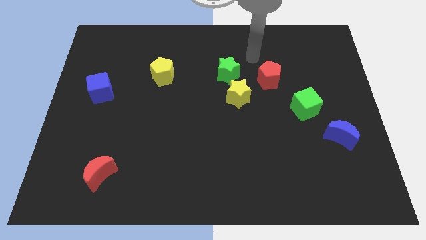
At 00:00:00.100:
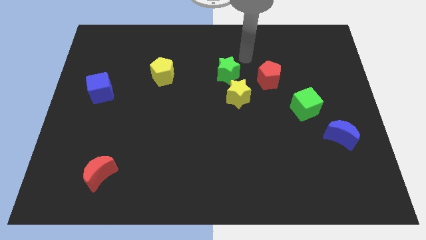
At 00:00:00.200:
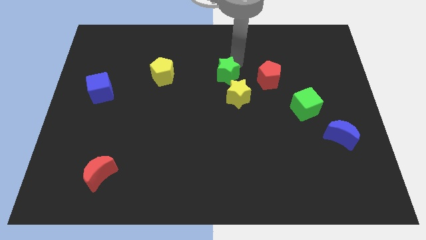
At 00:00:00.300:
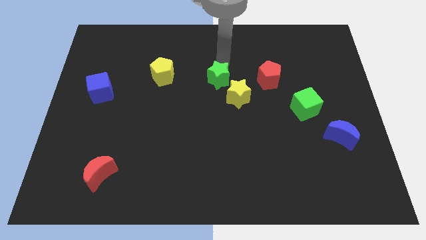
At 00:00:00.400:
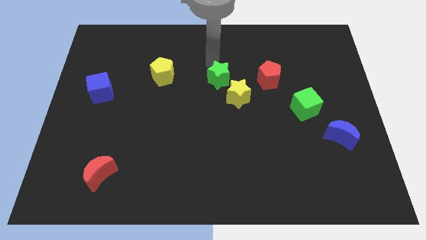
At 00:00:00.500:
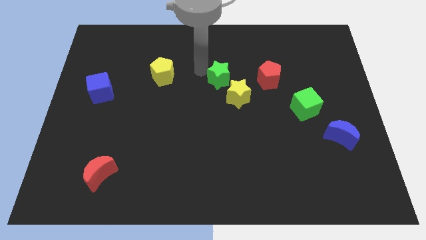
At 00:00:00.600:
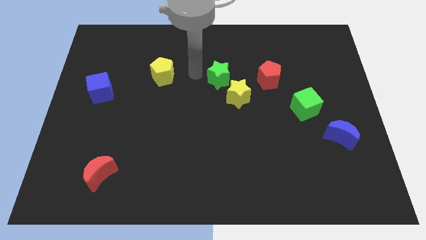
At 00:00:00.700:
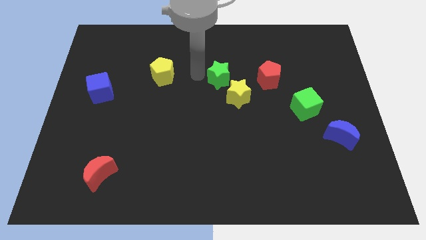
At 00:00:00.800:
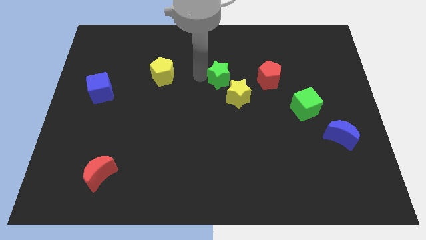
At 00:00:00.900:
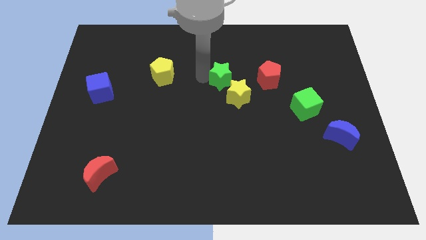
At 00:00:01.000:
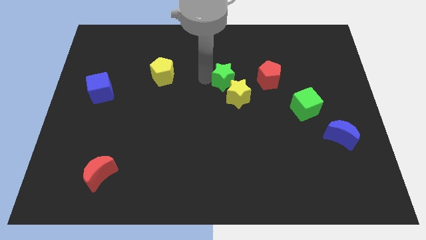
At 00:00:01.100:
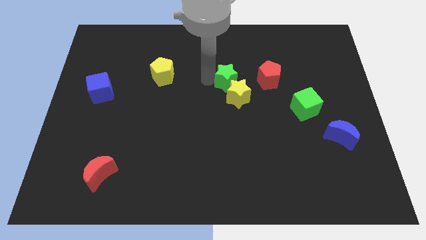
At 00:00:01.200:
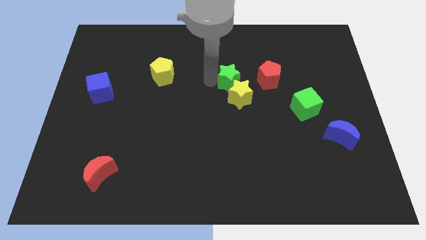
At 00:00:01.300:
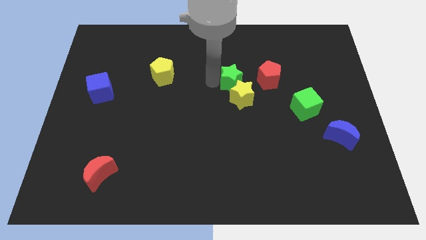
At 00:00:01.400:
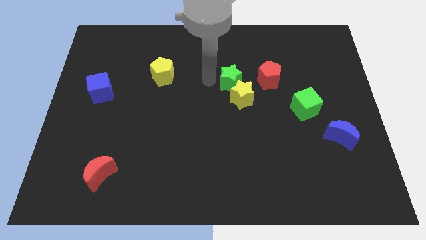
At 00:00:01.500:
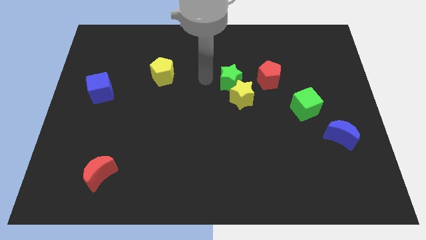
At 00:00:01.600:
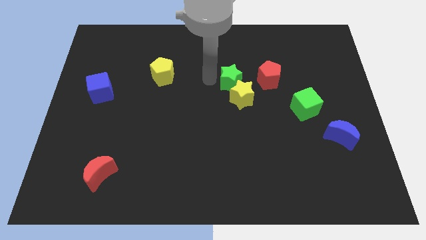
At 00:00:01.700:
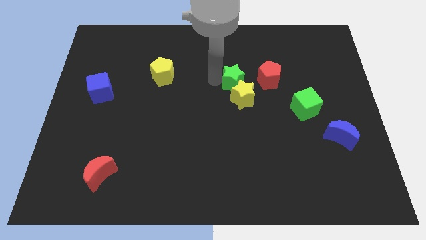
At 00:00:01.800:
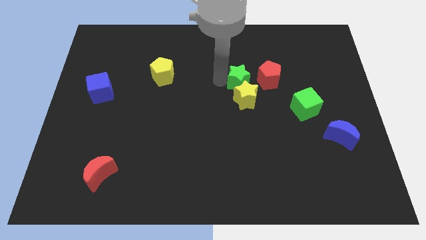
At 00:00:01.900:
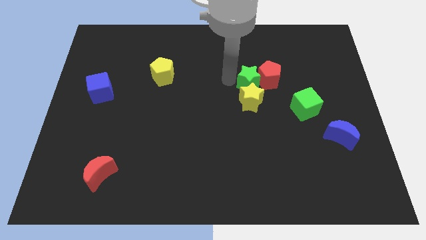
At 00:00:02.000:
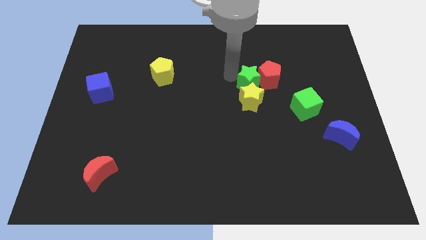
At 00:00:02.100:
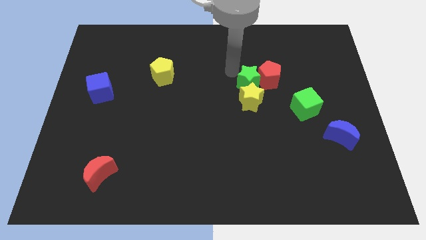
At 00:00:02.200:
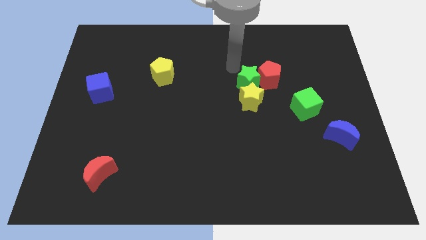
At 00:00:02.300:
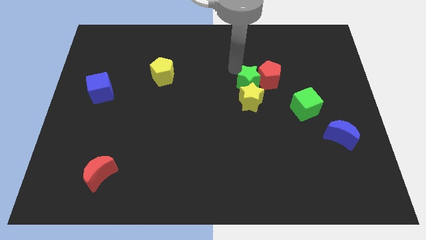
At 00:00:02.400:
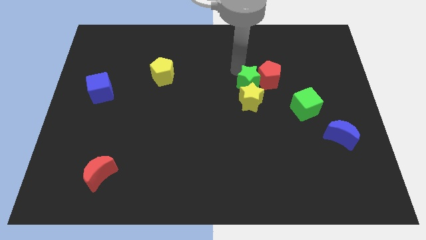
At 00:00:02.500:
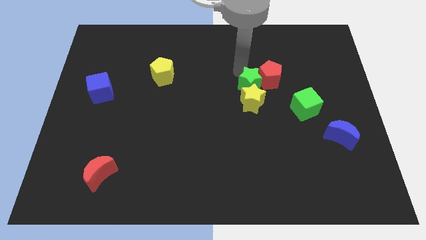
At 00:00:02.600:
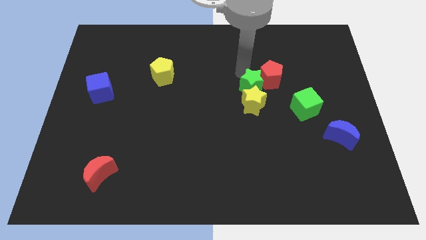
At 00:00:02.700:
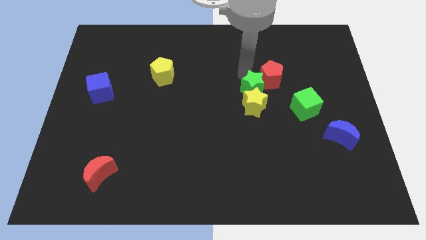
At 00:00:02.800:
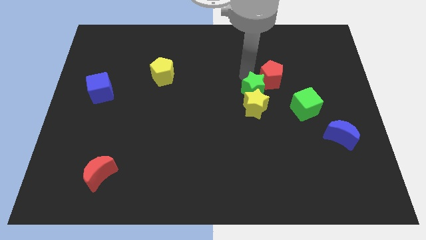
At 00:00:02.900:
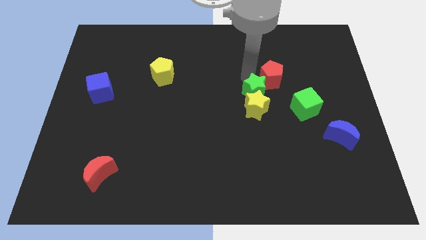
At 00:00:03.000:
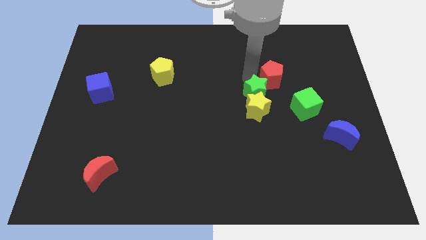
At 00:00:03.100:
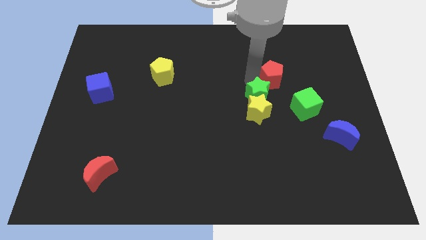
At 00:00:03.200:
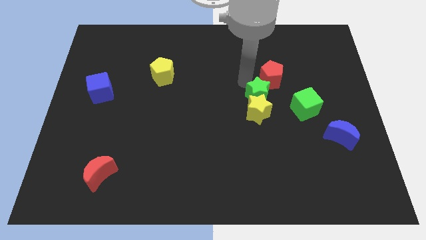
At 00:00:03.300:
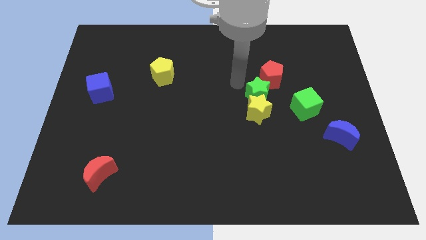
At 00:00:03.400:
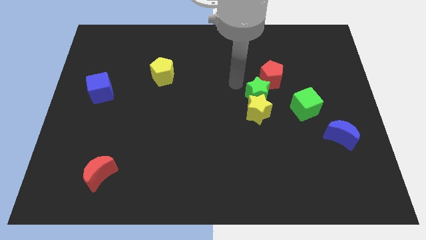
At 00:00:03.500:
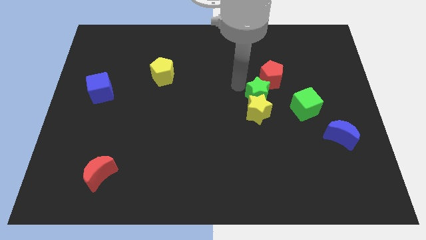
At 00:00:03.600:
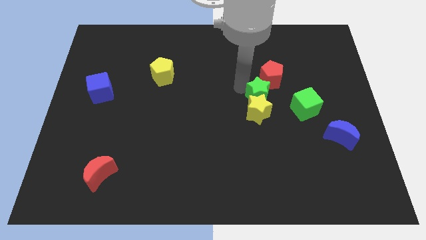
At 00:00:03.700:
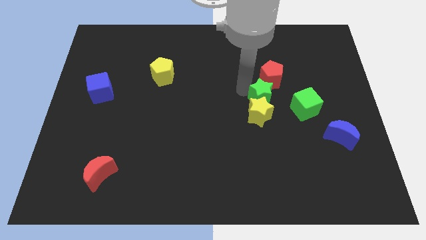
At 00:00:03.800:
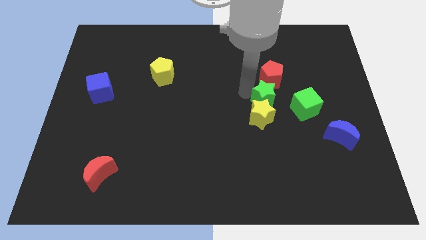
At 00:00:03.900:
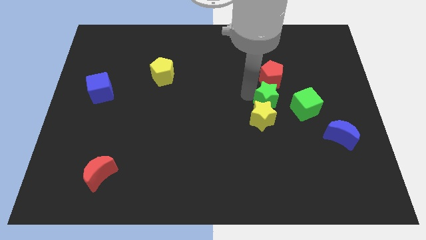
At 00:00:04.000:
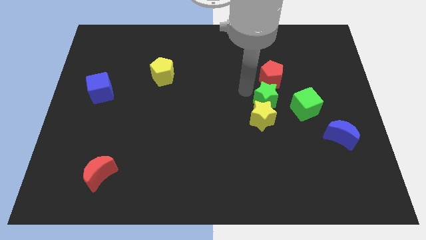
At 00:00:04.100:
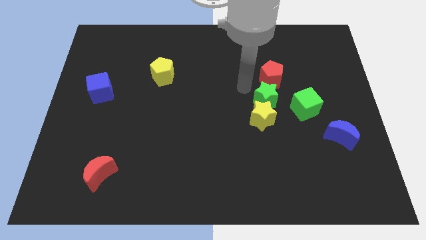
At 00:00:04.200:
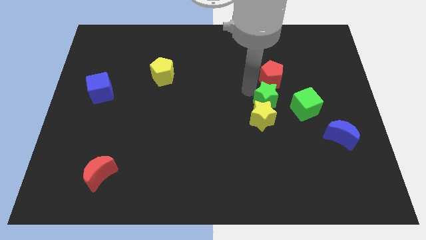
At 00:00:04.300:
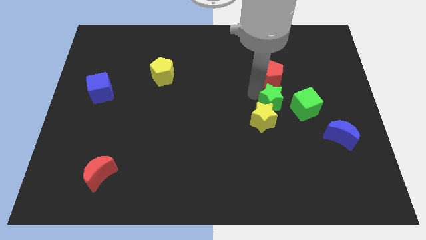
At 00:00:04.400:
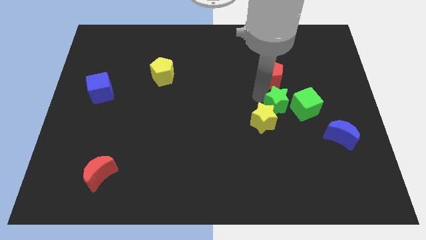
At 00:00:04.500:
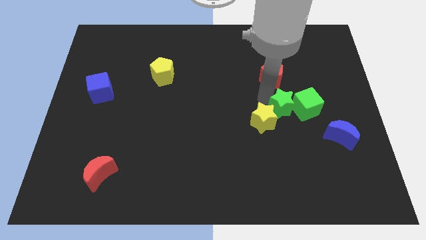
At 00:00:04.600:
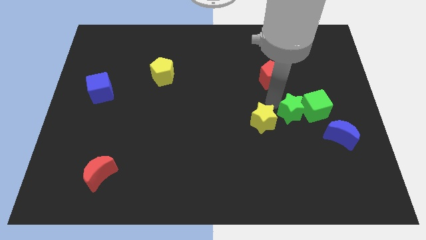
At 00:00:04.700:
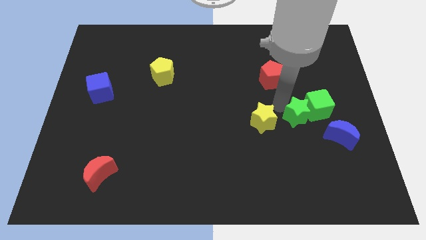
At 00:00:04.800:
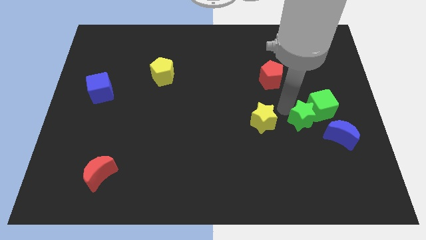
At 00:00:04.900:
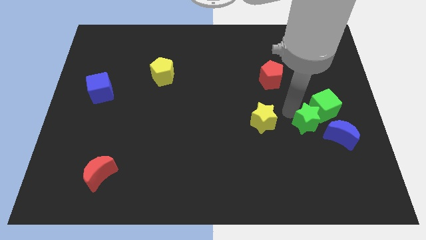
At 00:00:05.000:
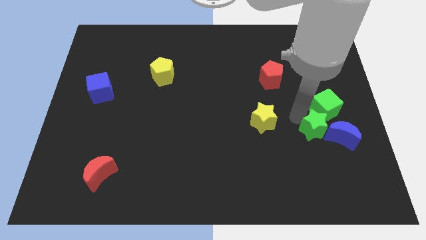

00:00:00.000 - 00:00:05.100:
push the green star towards the blue moon

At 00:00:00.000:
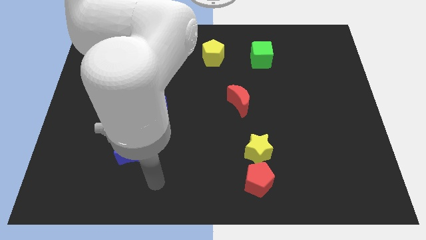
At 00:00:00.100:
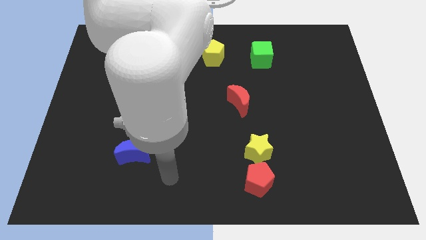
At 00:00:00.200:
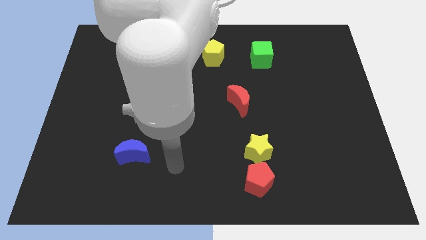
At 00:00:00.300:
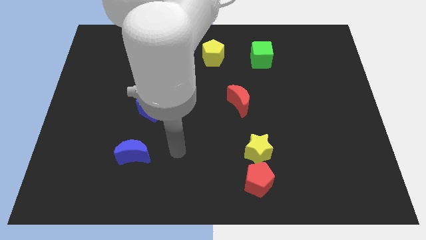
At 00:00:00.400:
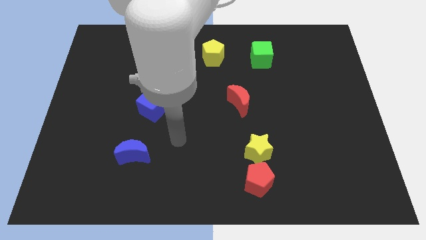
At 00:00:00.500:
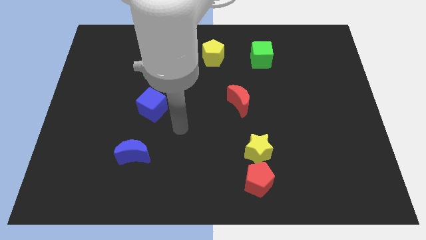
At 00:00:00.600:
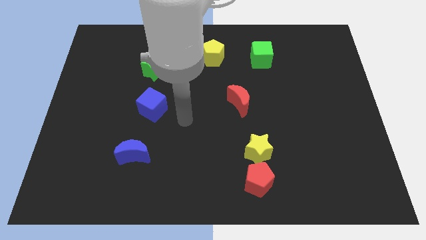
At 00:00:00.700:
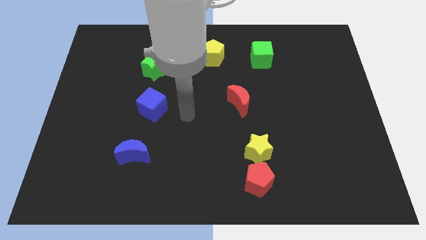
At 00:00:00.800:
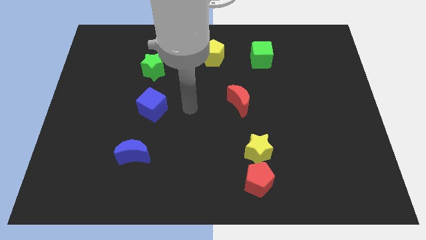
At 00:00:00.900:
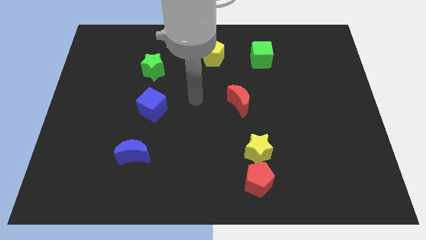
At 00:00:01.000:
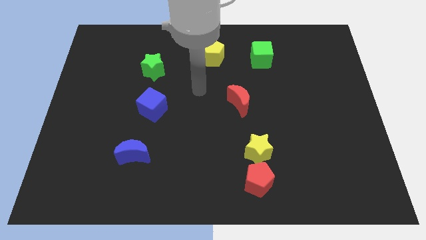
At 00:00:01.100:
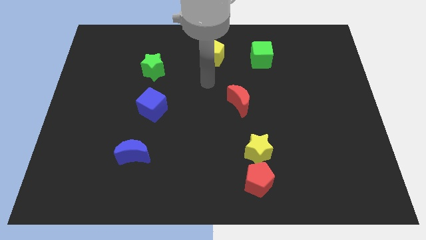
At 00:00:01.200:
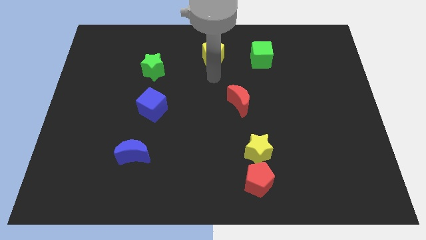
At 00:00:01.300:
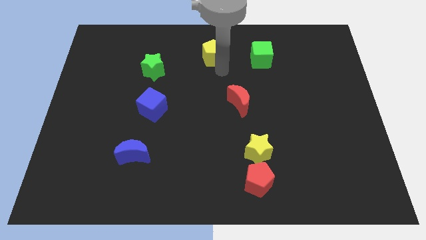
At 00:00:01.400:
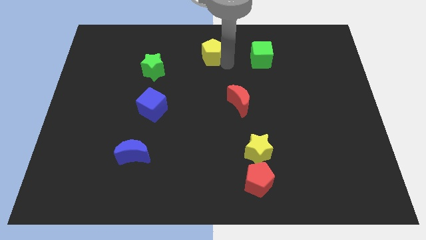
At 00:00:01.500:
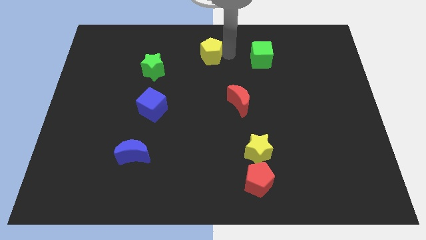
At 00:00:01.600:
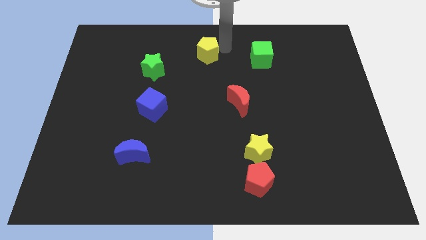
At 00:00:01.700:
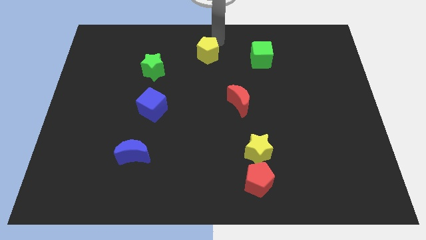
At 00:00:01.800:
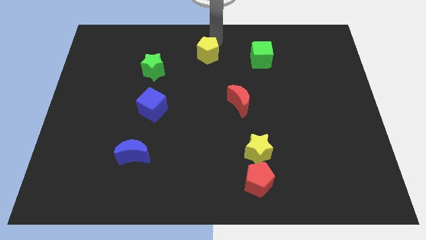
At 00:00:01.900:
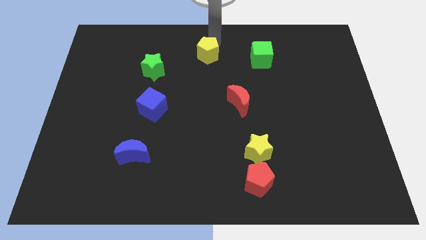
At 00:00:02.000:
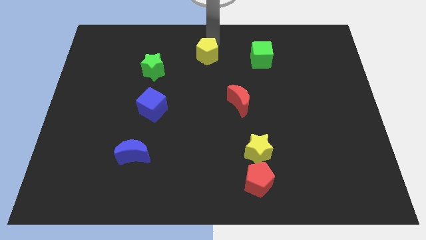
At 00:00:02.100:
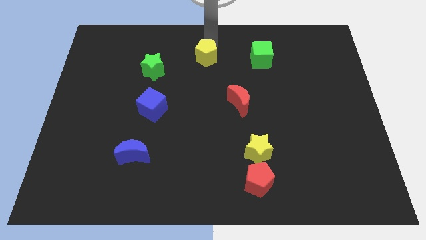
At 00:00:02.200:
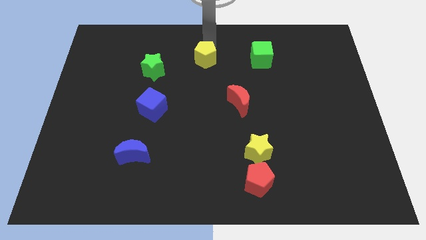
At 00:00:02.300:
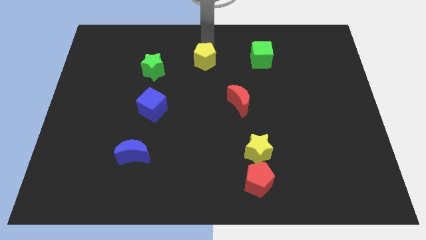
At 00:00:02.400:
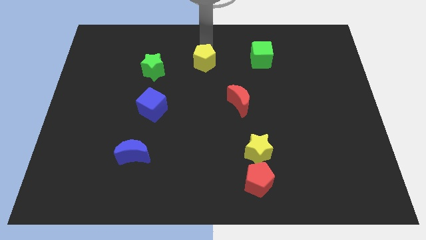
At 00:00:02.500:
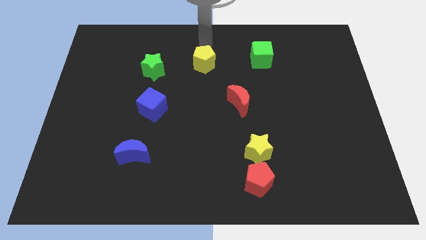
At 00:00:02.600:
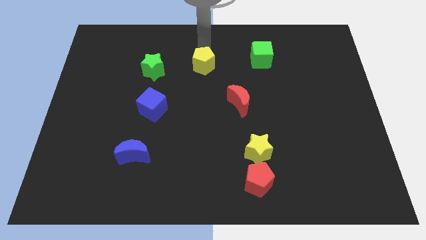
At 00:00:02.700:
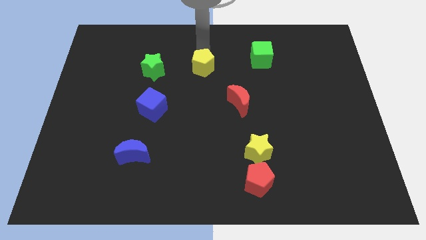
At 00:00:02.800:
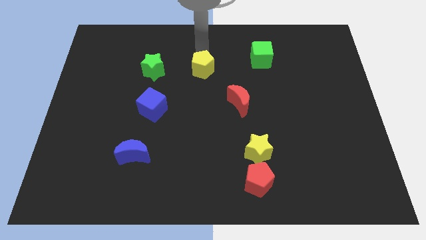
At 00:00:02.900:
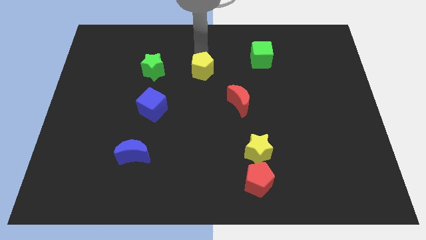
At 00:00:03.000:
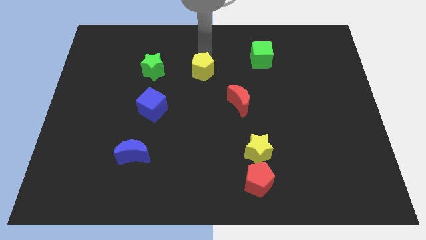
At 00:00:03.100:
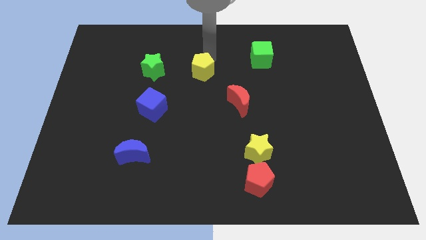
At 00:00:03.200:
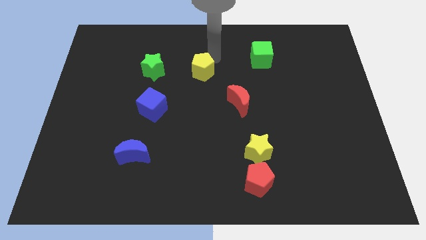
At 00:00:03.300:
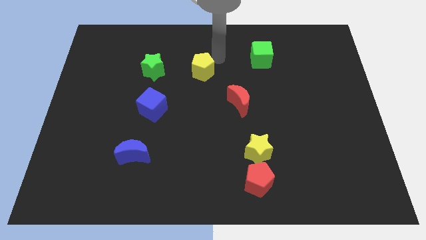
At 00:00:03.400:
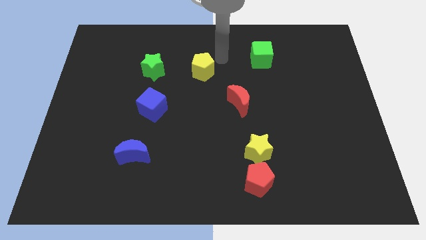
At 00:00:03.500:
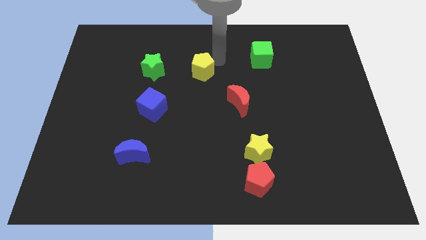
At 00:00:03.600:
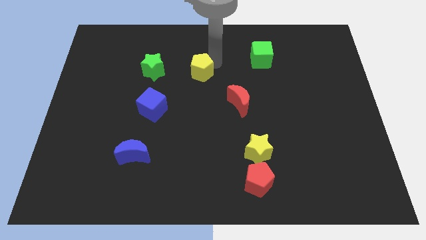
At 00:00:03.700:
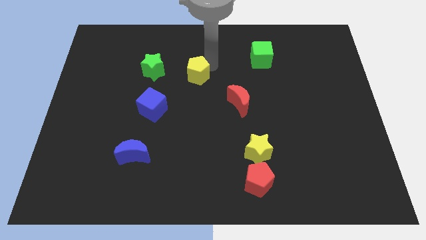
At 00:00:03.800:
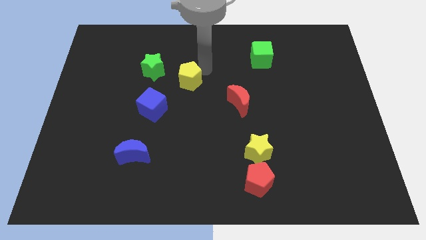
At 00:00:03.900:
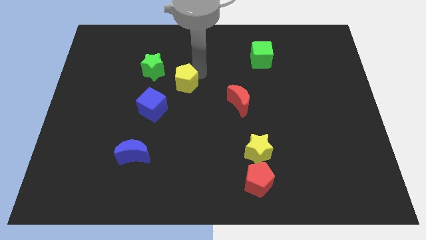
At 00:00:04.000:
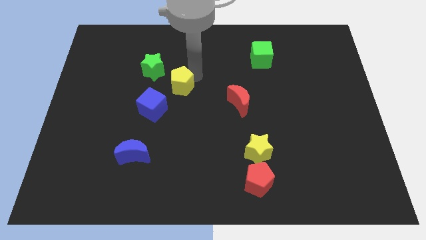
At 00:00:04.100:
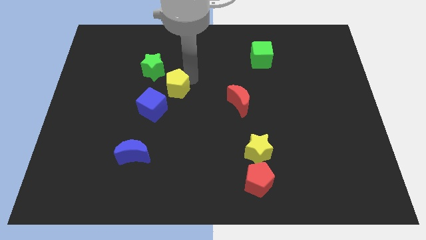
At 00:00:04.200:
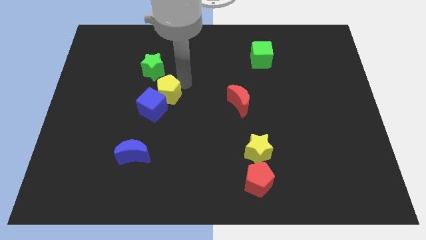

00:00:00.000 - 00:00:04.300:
put the yellow pentagon close to the blue cube
